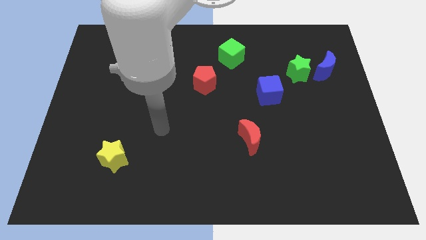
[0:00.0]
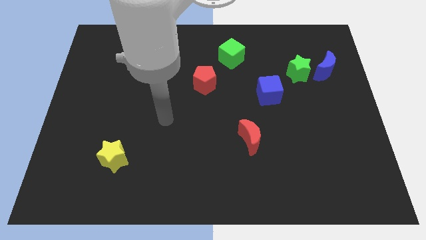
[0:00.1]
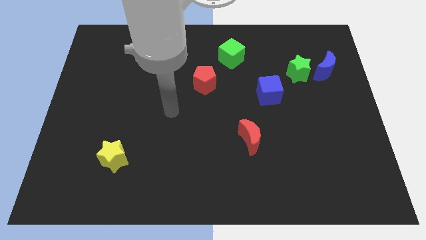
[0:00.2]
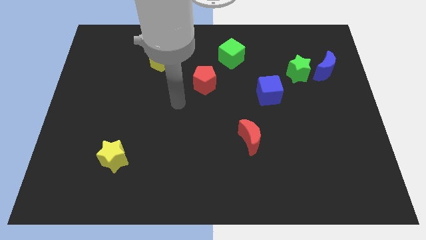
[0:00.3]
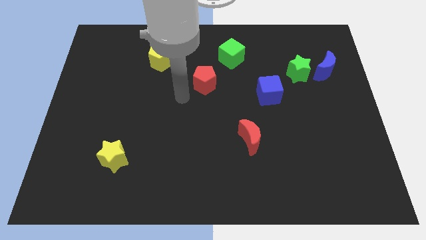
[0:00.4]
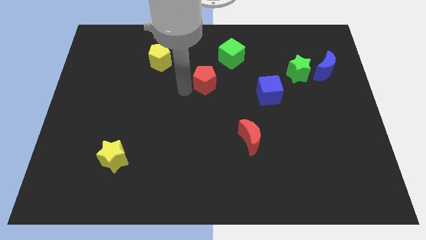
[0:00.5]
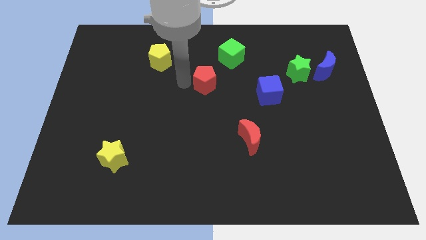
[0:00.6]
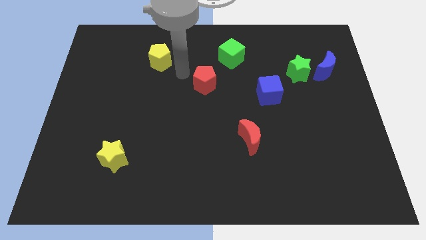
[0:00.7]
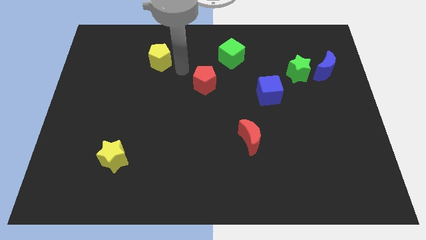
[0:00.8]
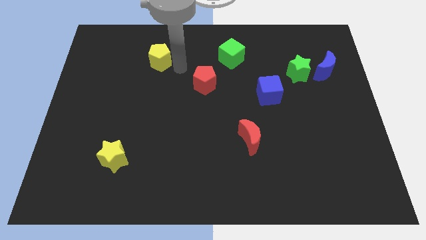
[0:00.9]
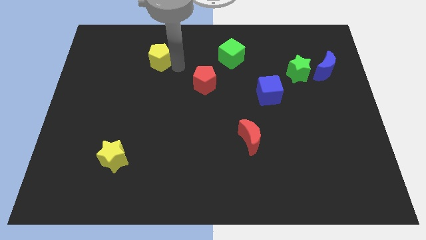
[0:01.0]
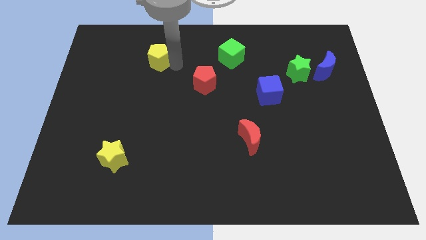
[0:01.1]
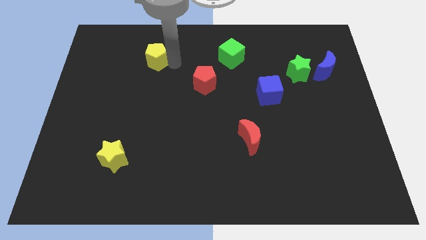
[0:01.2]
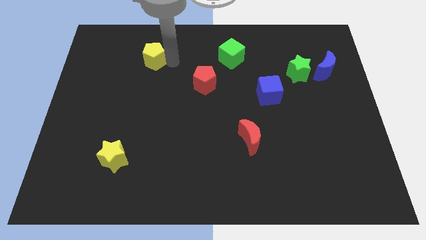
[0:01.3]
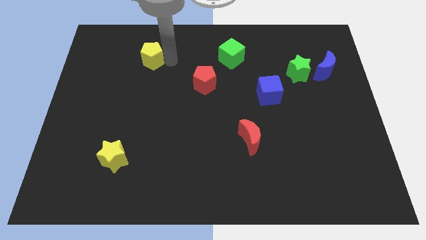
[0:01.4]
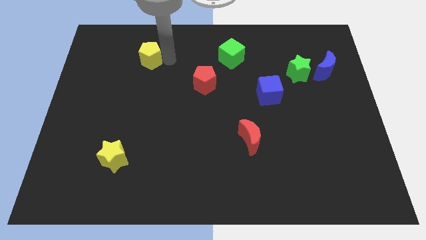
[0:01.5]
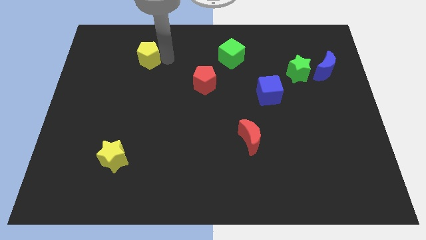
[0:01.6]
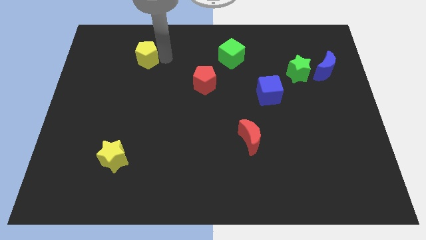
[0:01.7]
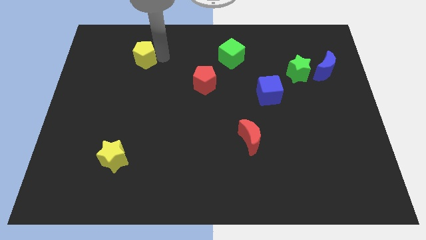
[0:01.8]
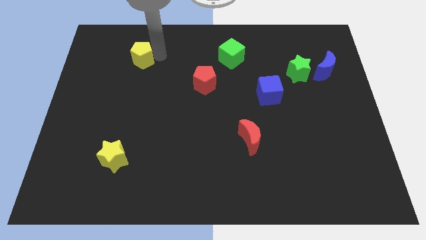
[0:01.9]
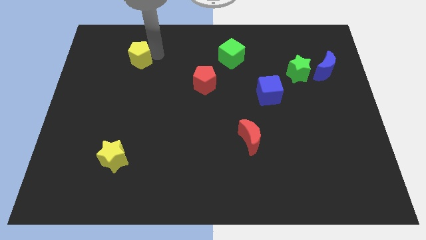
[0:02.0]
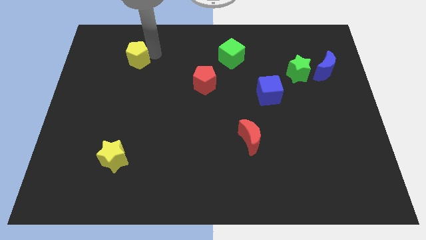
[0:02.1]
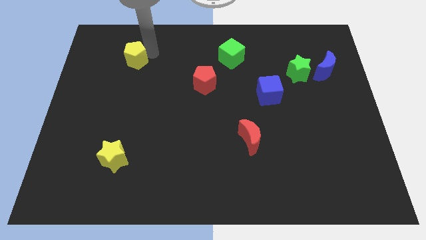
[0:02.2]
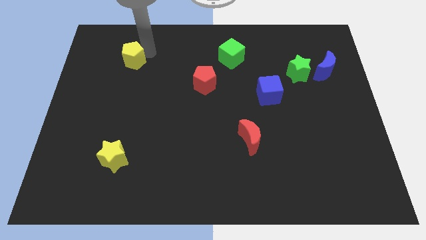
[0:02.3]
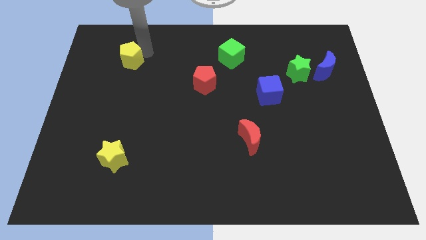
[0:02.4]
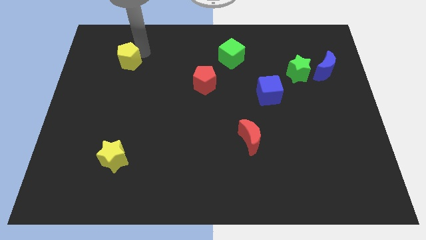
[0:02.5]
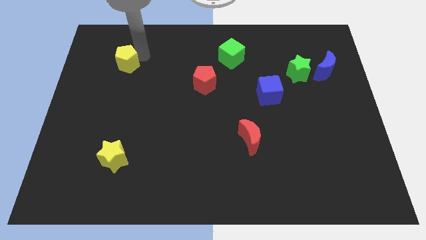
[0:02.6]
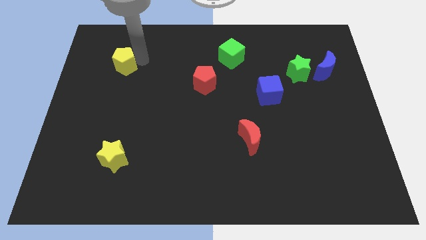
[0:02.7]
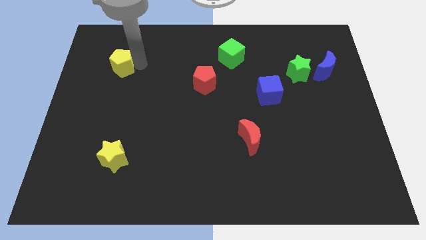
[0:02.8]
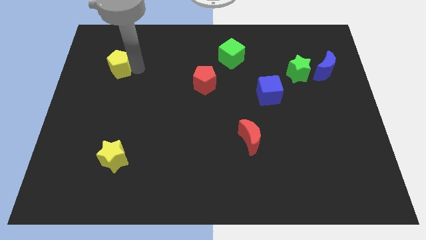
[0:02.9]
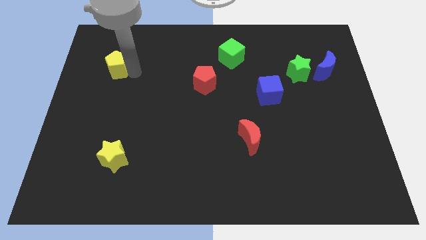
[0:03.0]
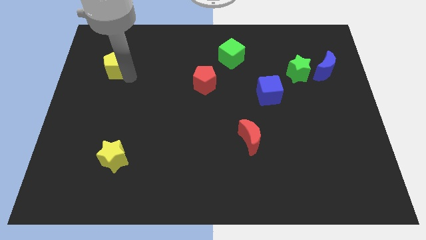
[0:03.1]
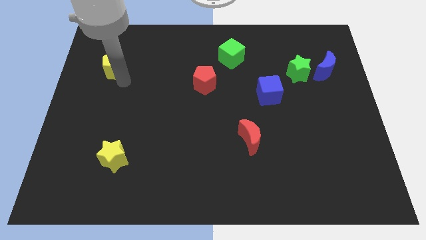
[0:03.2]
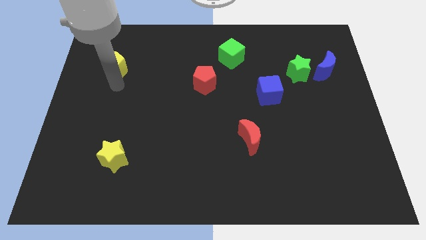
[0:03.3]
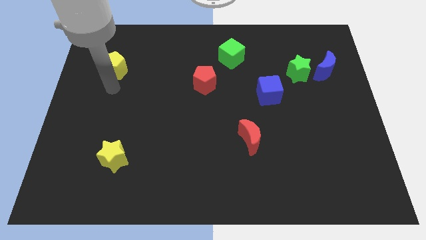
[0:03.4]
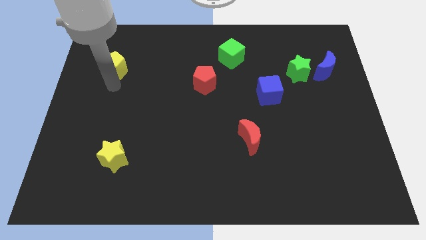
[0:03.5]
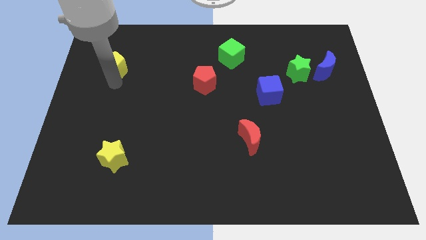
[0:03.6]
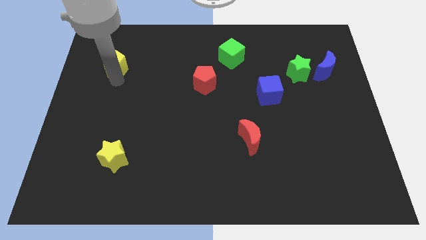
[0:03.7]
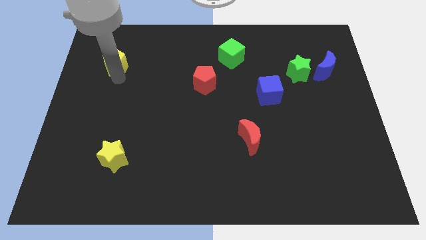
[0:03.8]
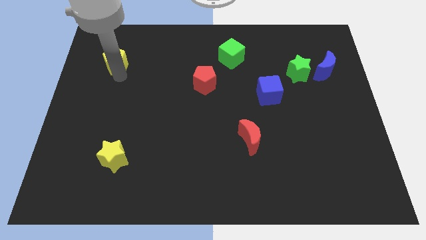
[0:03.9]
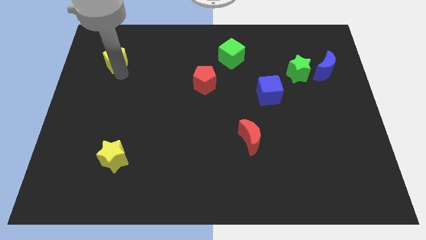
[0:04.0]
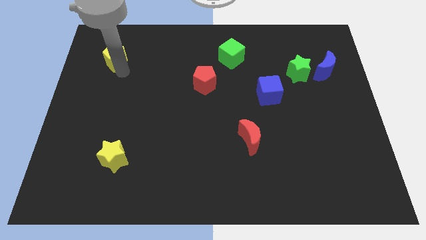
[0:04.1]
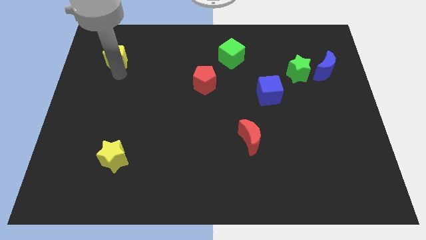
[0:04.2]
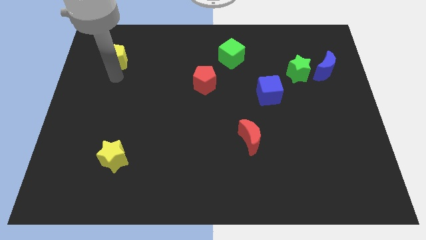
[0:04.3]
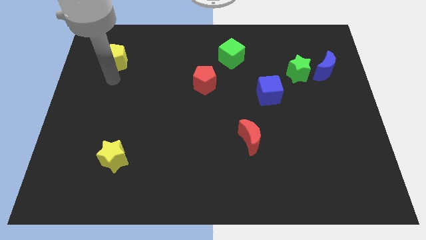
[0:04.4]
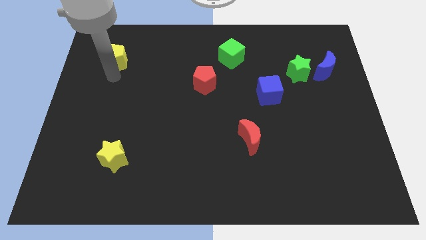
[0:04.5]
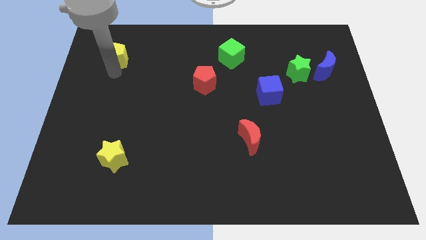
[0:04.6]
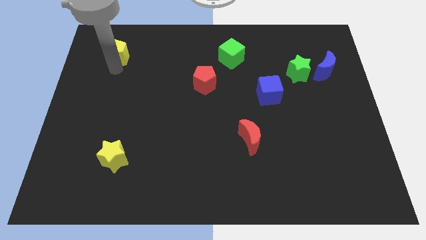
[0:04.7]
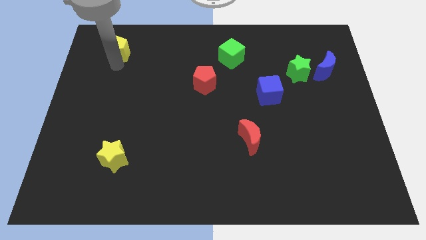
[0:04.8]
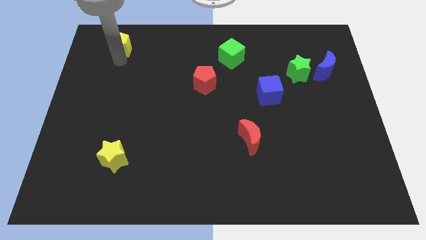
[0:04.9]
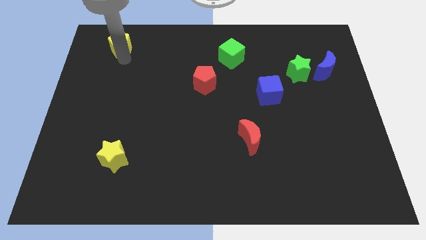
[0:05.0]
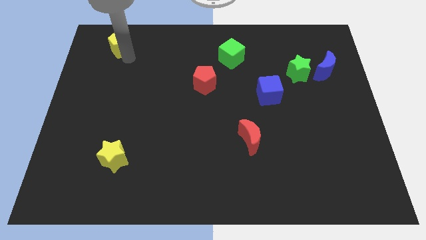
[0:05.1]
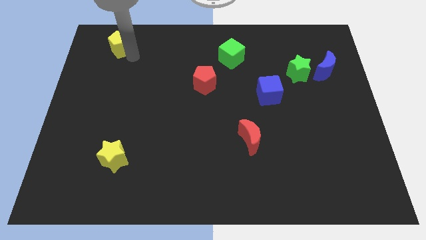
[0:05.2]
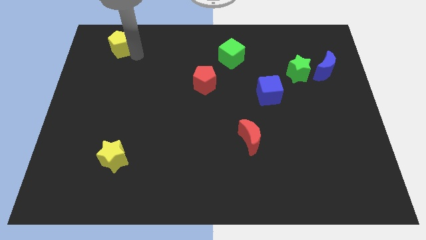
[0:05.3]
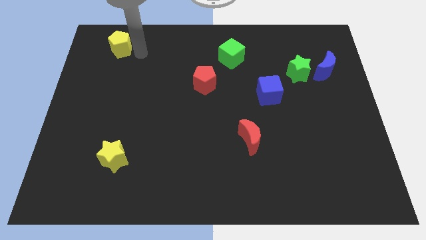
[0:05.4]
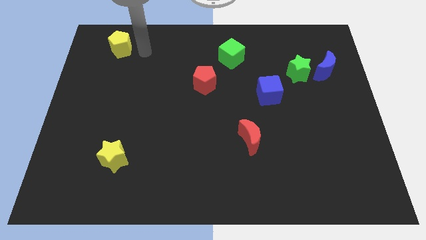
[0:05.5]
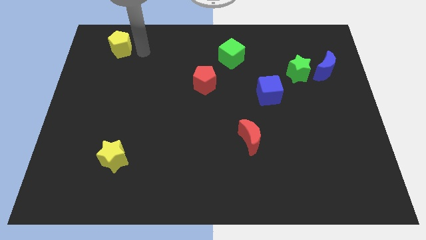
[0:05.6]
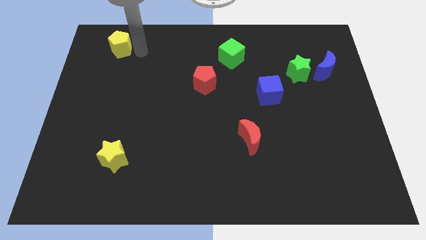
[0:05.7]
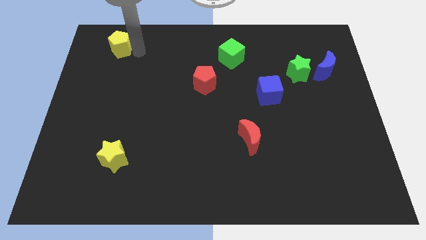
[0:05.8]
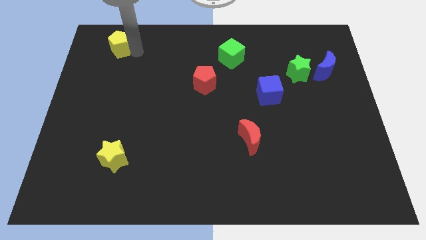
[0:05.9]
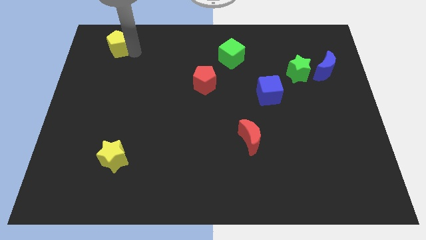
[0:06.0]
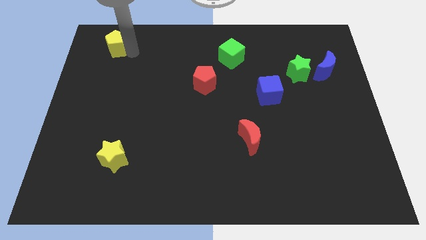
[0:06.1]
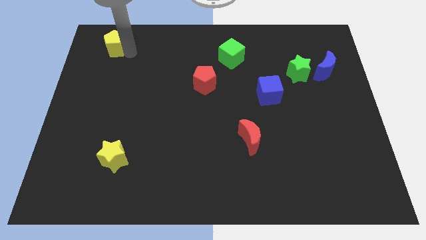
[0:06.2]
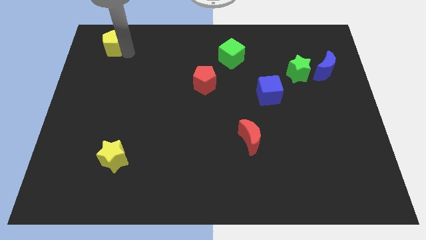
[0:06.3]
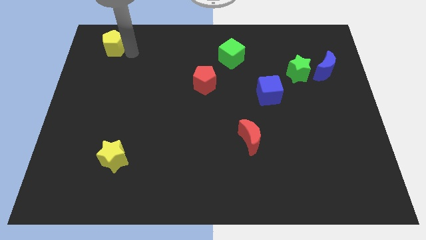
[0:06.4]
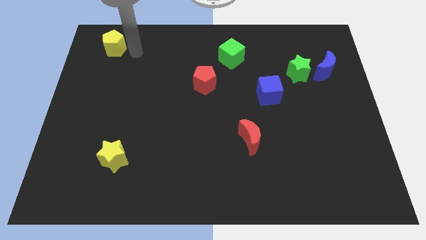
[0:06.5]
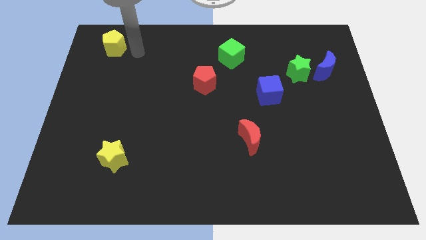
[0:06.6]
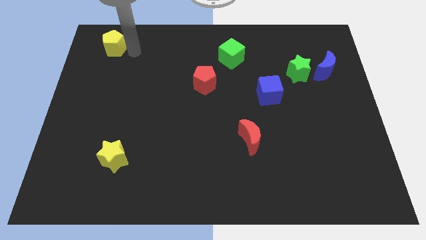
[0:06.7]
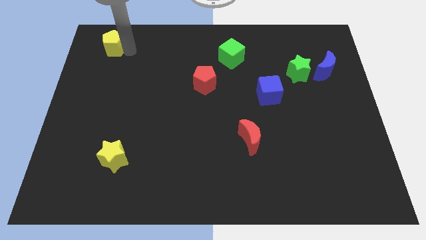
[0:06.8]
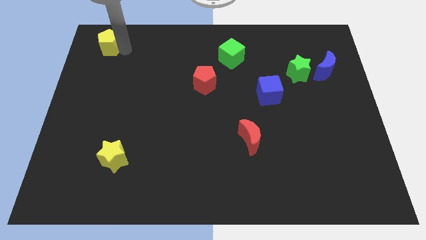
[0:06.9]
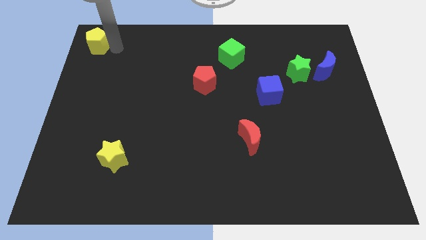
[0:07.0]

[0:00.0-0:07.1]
push the yellow pentagon to the top left corner
